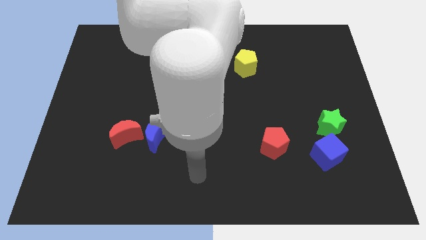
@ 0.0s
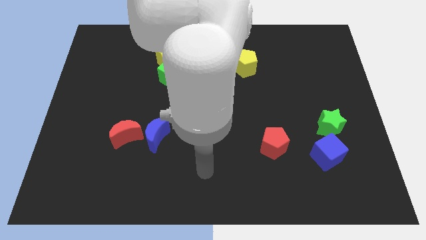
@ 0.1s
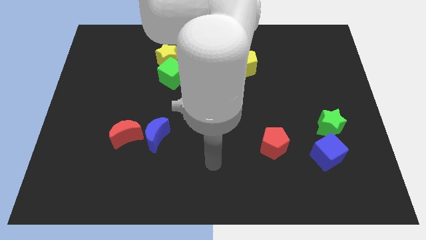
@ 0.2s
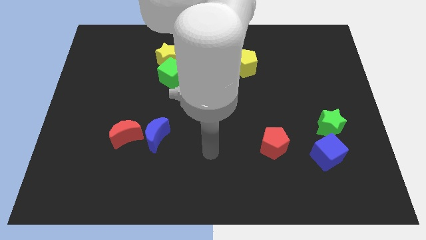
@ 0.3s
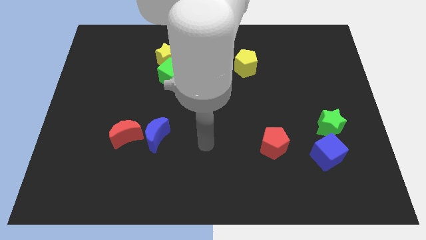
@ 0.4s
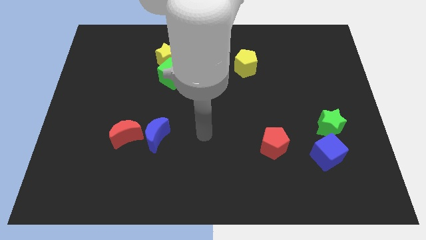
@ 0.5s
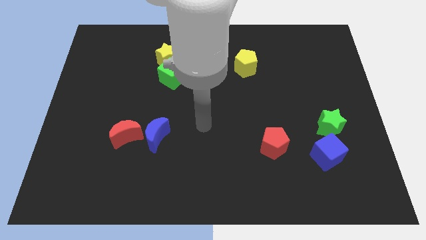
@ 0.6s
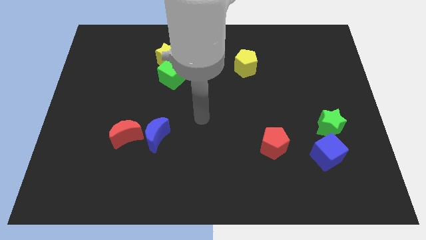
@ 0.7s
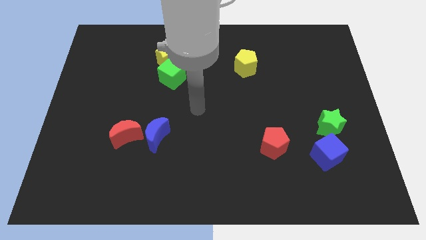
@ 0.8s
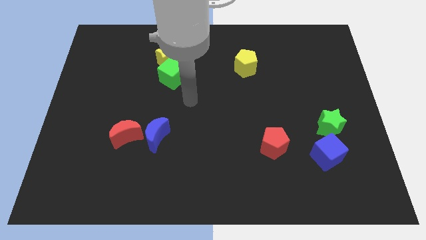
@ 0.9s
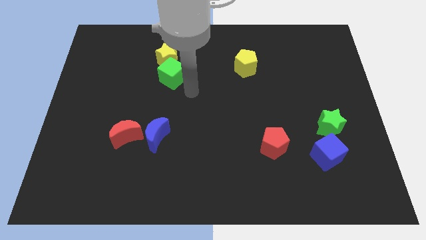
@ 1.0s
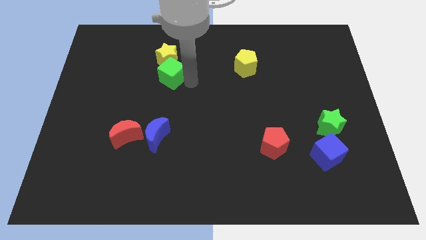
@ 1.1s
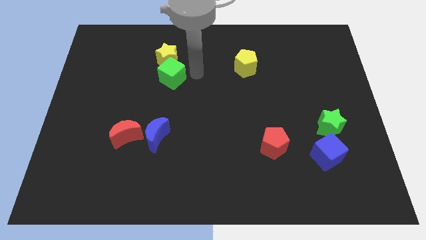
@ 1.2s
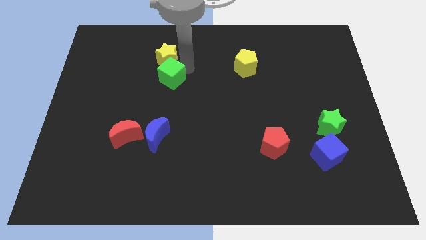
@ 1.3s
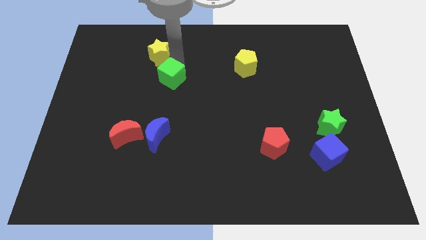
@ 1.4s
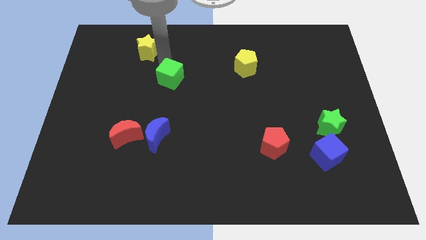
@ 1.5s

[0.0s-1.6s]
move the green cube away from the yellow star

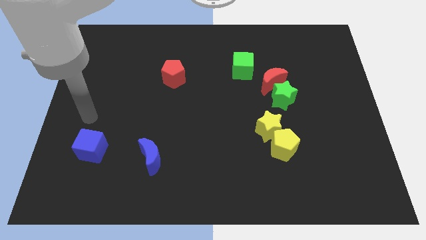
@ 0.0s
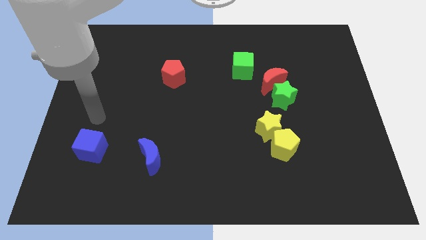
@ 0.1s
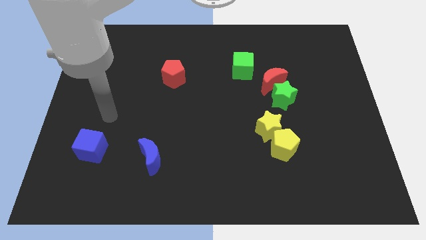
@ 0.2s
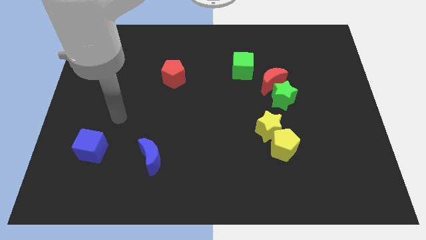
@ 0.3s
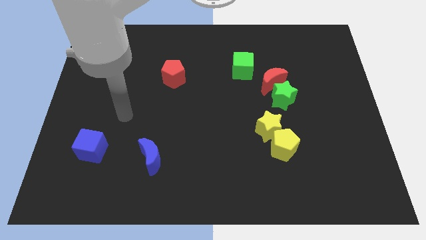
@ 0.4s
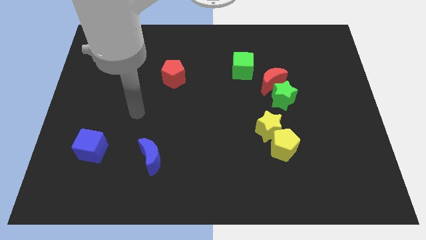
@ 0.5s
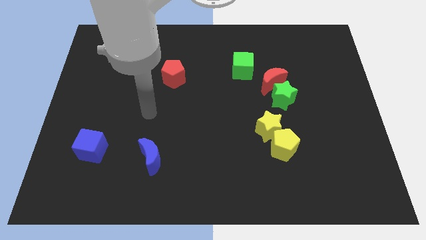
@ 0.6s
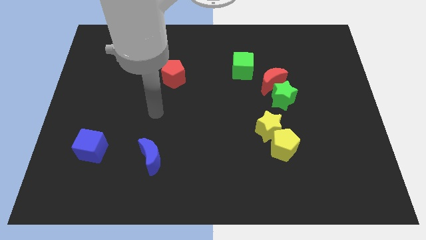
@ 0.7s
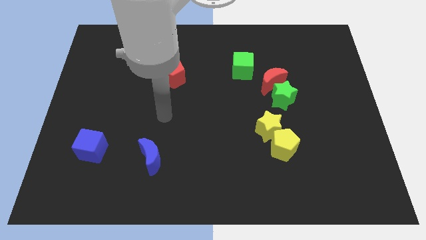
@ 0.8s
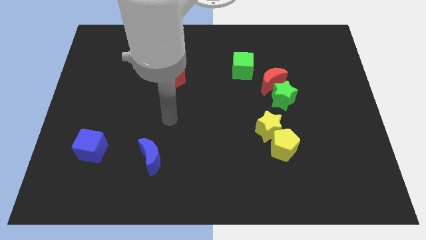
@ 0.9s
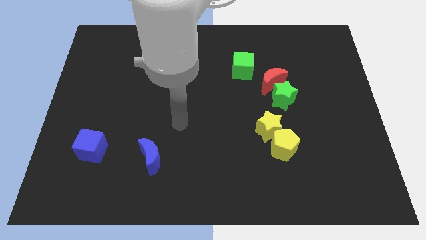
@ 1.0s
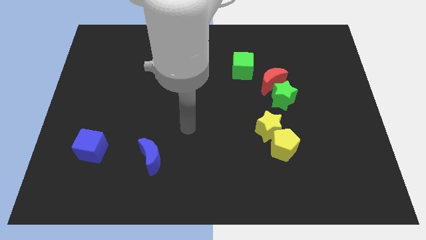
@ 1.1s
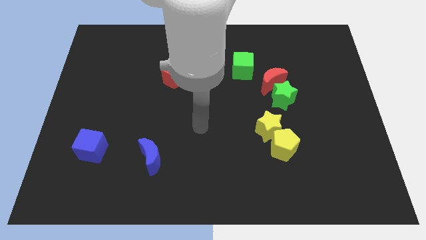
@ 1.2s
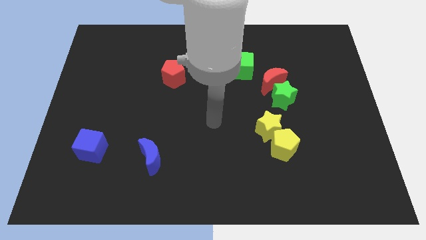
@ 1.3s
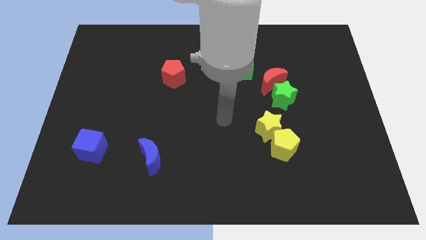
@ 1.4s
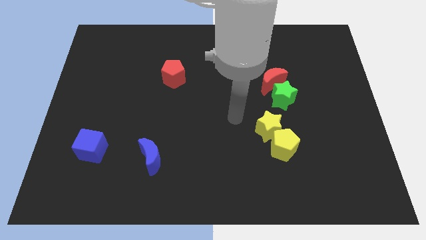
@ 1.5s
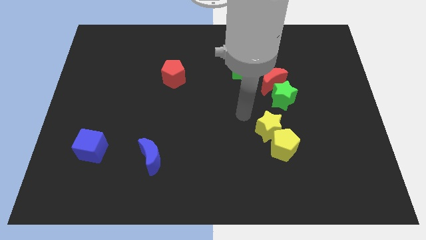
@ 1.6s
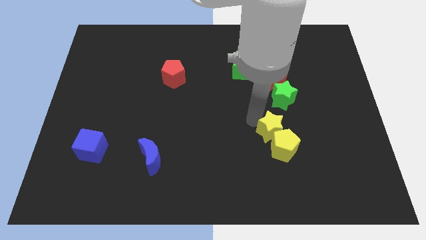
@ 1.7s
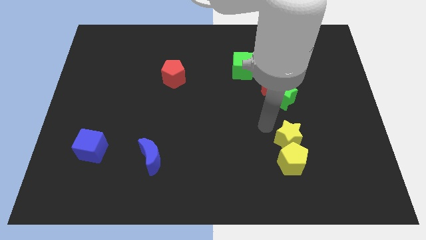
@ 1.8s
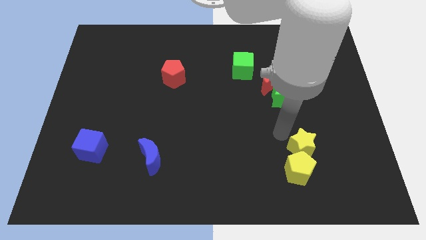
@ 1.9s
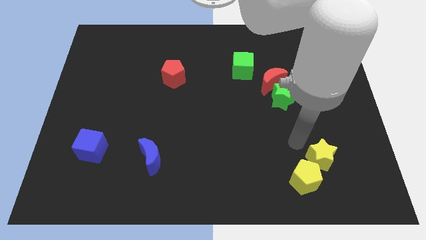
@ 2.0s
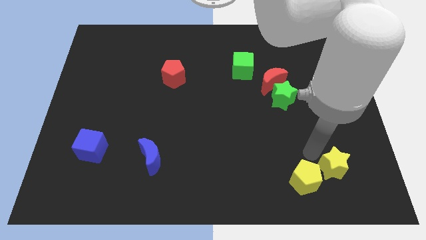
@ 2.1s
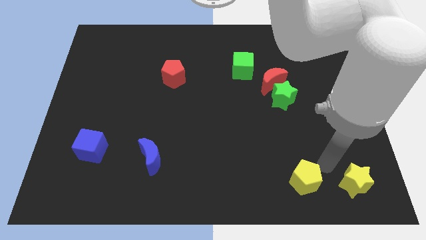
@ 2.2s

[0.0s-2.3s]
separate the yellow pentagon from the yellow star

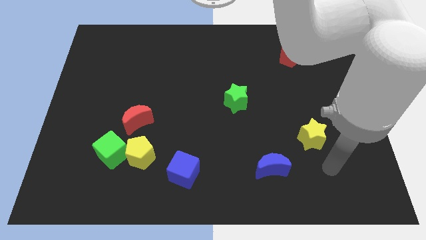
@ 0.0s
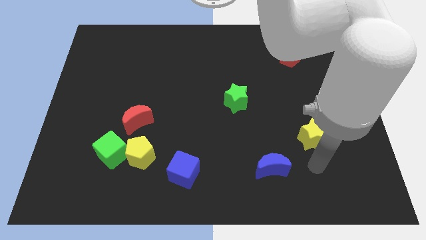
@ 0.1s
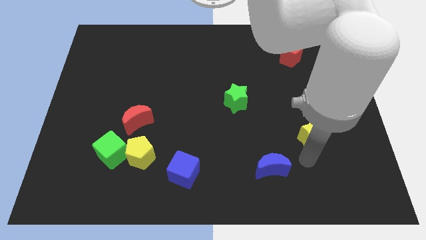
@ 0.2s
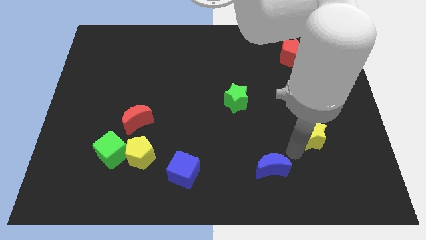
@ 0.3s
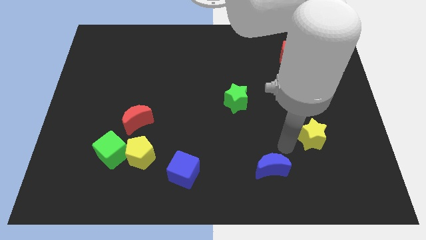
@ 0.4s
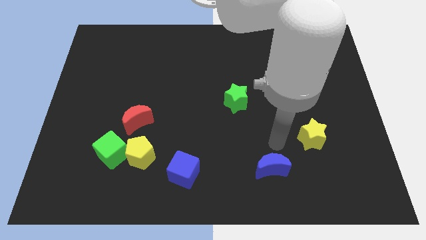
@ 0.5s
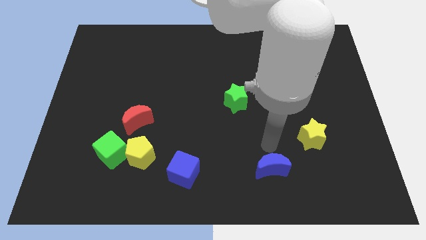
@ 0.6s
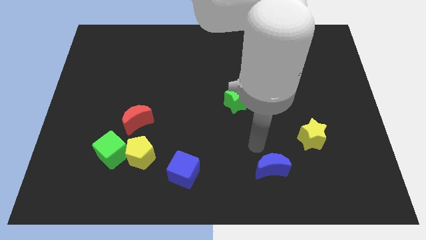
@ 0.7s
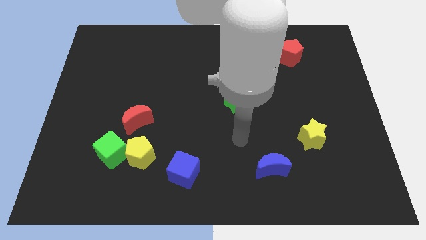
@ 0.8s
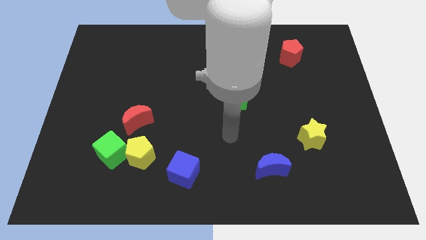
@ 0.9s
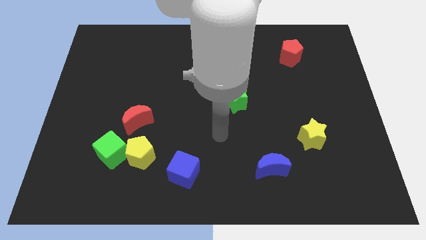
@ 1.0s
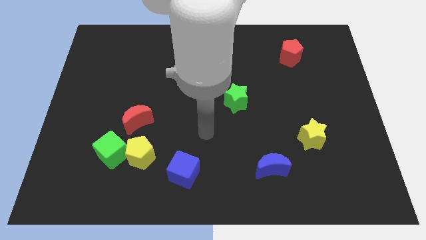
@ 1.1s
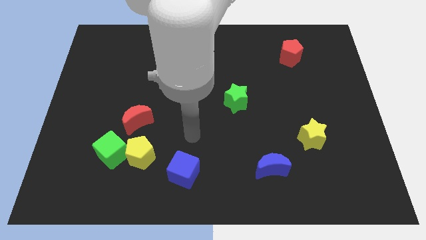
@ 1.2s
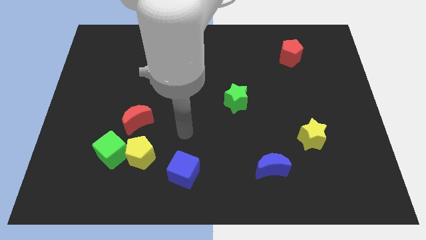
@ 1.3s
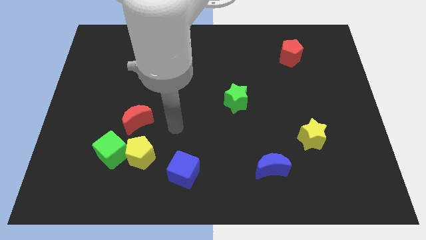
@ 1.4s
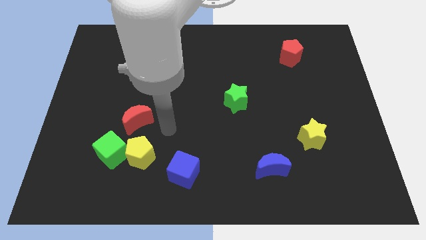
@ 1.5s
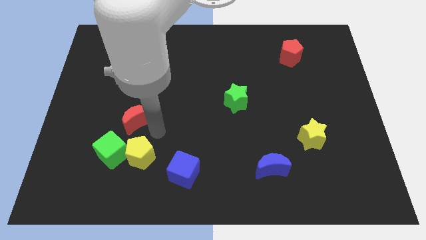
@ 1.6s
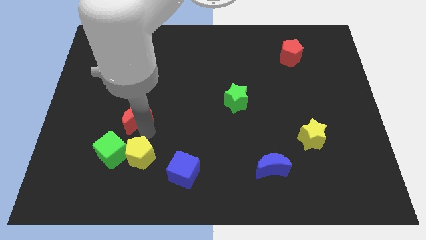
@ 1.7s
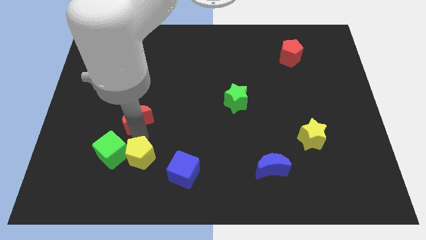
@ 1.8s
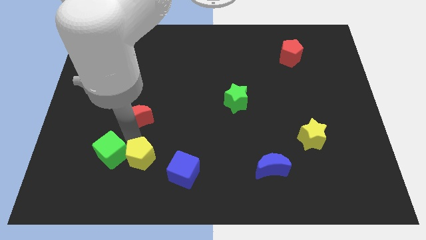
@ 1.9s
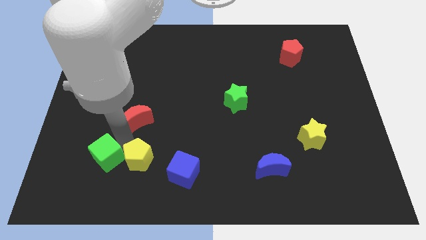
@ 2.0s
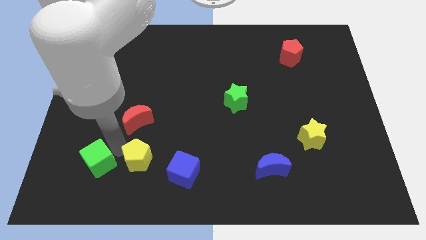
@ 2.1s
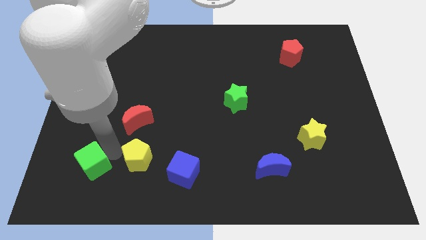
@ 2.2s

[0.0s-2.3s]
pull the green cube apart from the yellow pentagon and red moon

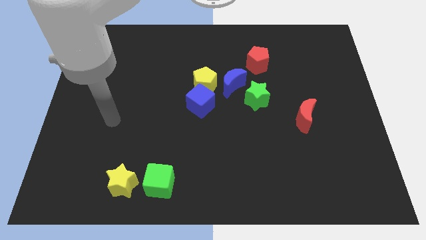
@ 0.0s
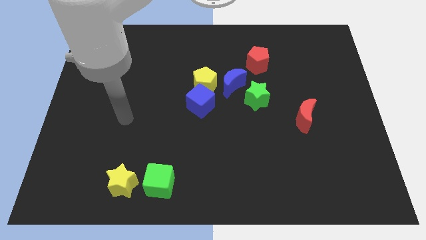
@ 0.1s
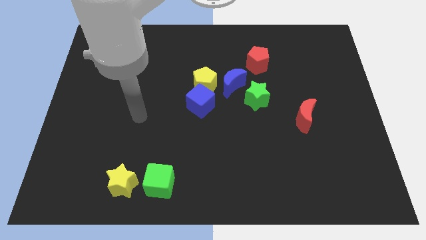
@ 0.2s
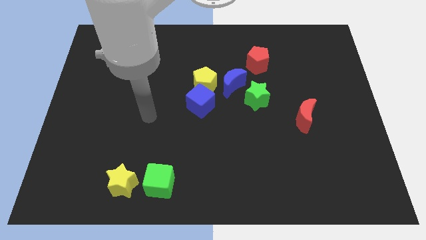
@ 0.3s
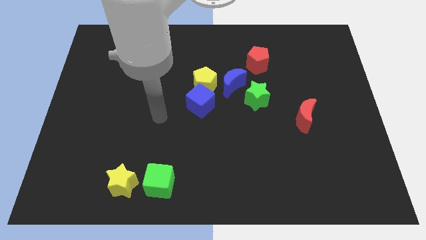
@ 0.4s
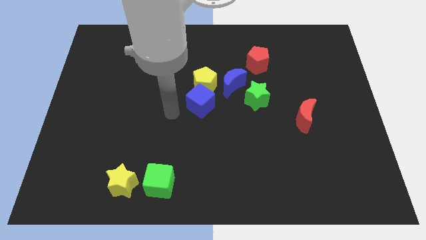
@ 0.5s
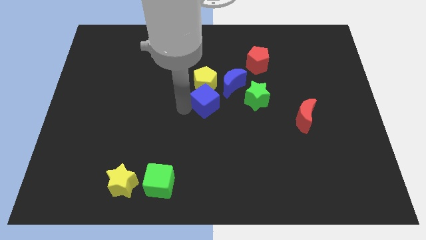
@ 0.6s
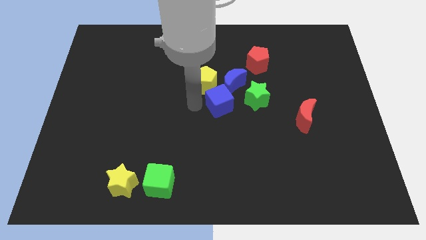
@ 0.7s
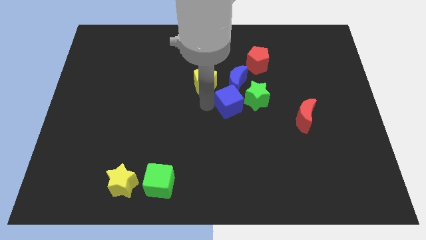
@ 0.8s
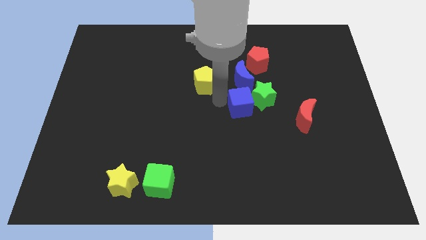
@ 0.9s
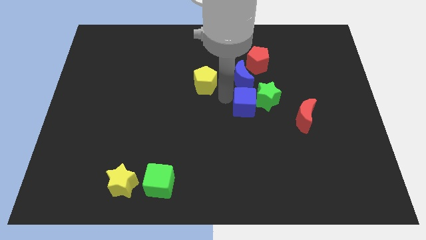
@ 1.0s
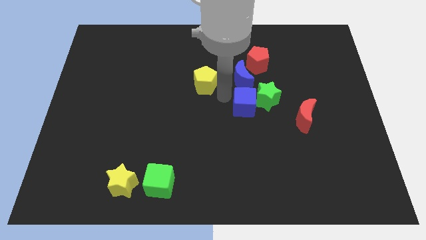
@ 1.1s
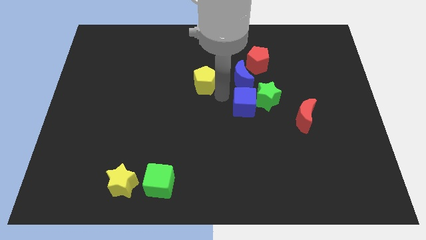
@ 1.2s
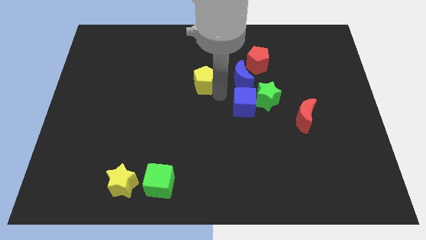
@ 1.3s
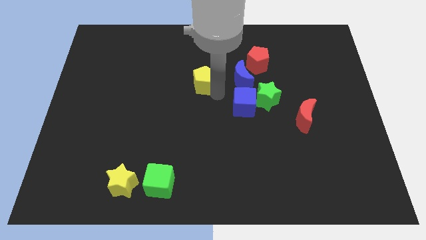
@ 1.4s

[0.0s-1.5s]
separate the yellow pentagon from the blue cube and blue moon

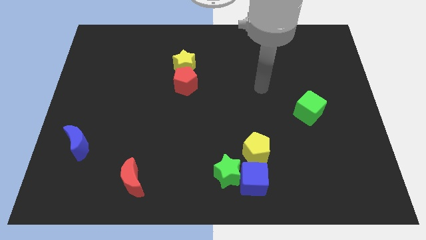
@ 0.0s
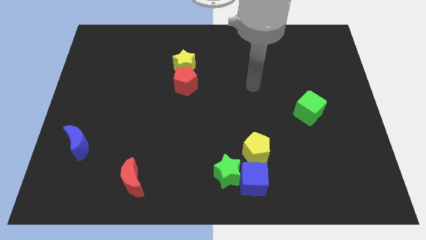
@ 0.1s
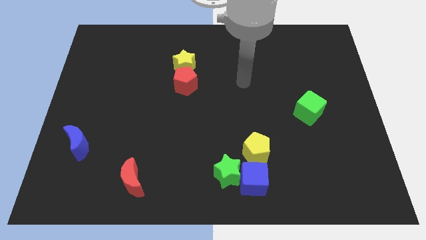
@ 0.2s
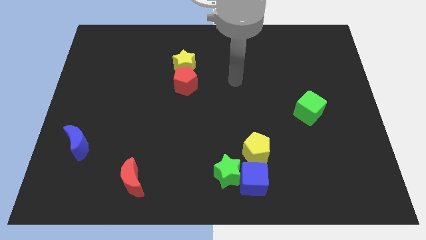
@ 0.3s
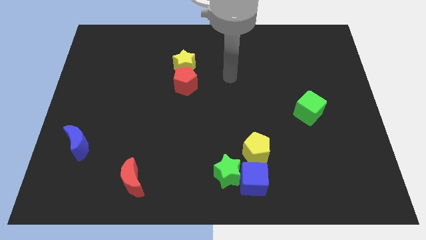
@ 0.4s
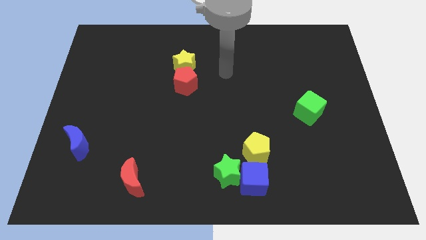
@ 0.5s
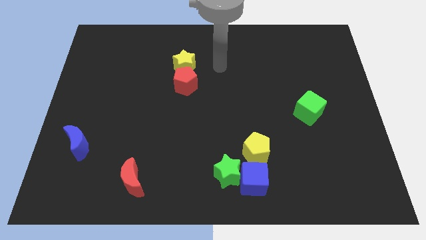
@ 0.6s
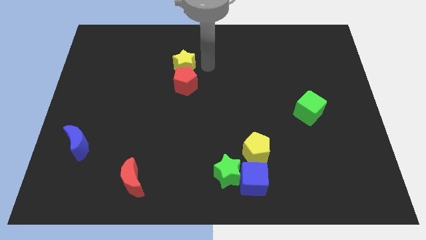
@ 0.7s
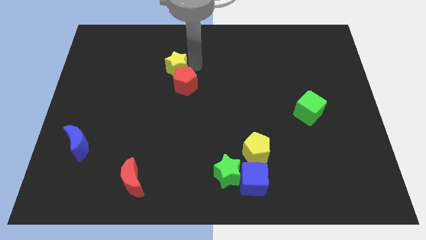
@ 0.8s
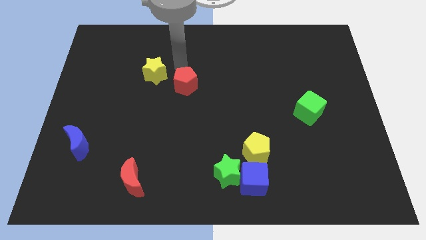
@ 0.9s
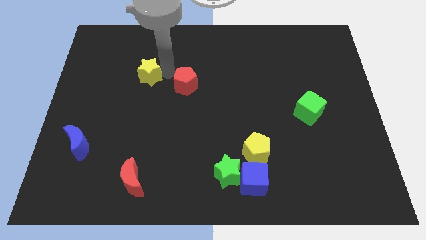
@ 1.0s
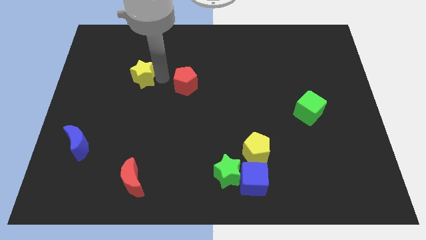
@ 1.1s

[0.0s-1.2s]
separate the red pentagon from the yellow star

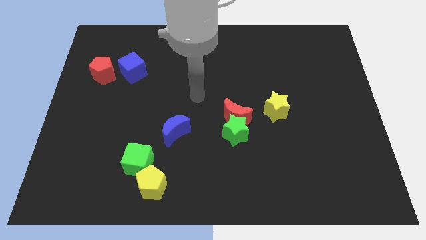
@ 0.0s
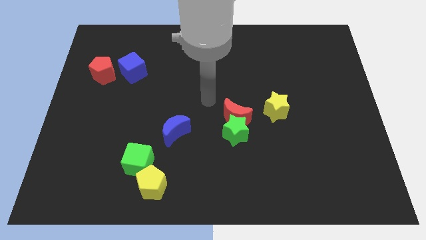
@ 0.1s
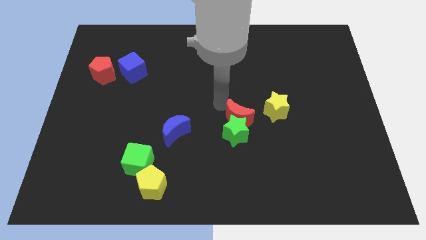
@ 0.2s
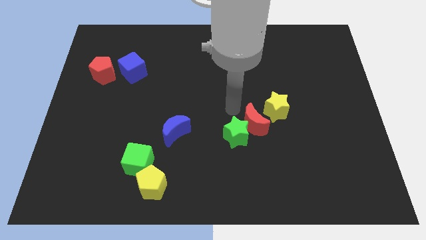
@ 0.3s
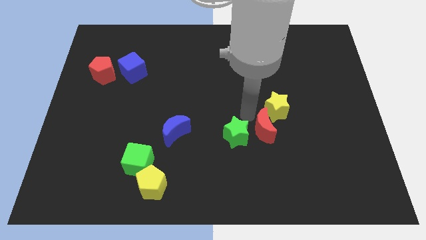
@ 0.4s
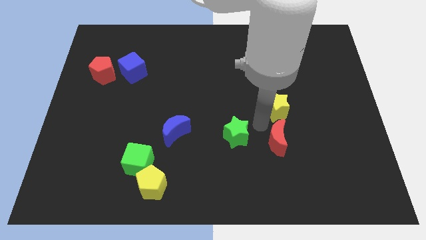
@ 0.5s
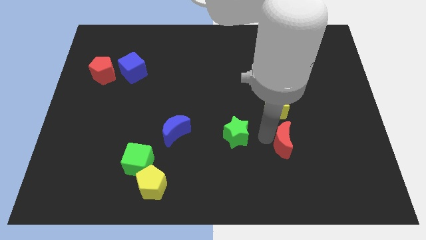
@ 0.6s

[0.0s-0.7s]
move the green star away from the red moon
